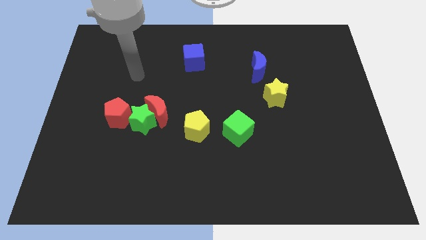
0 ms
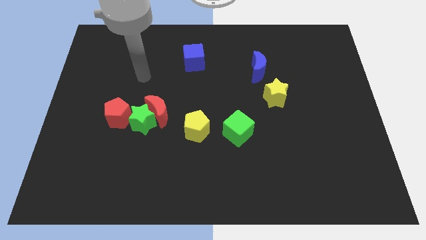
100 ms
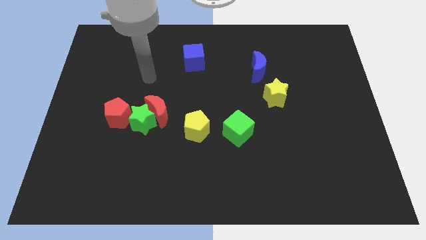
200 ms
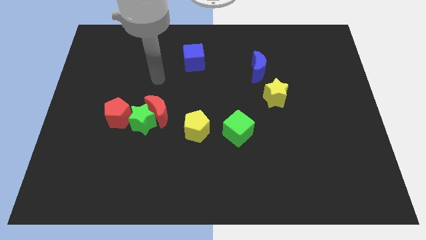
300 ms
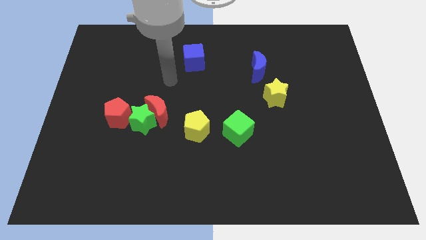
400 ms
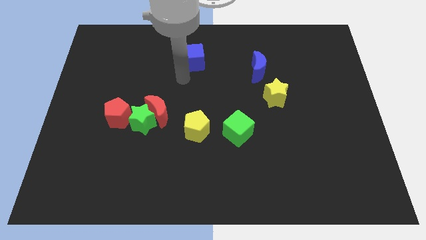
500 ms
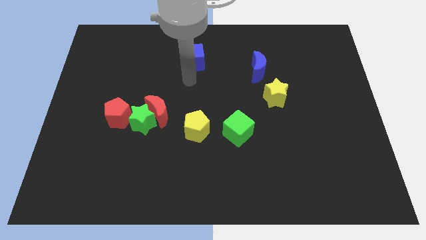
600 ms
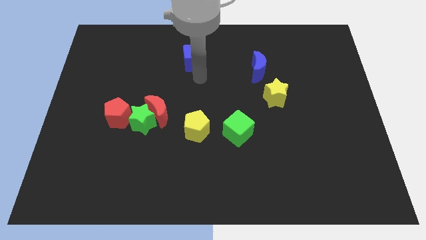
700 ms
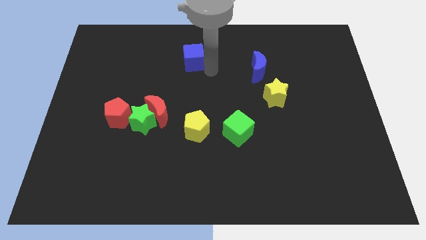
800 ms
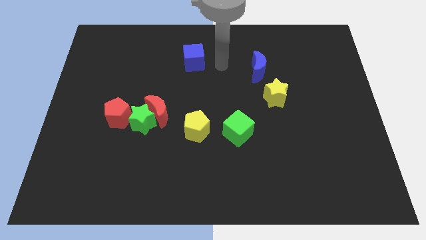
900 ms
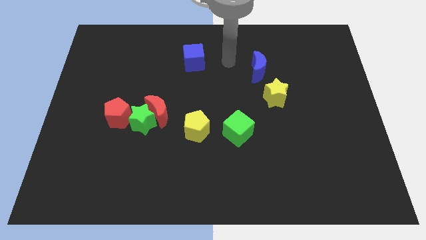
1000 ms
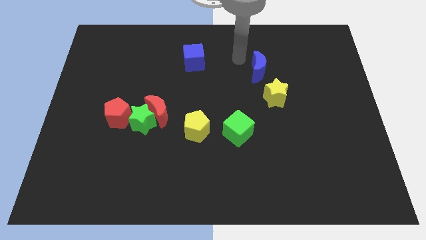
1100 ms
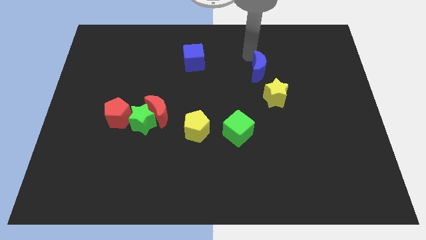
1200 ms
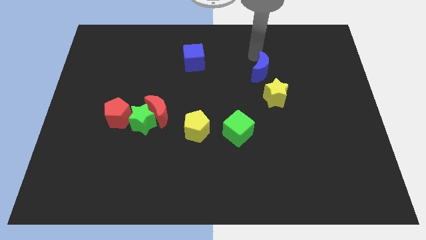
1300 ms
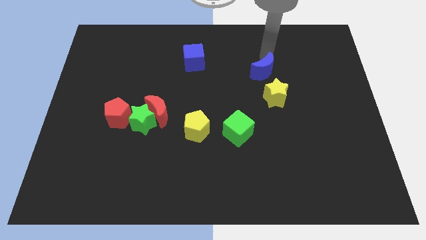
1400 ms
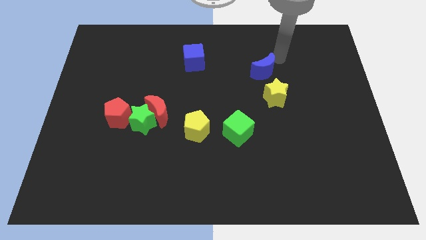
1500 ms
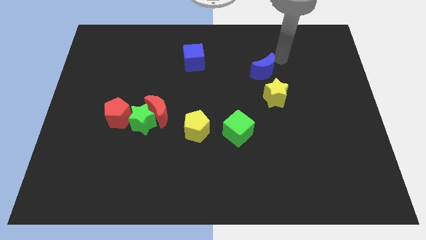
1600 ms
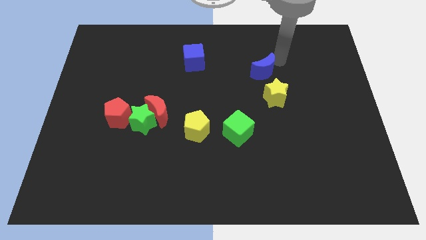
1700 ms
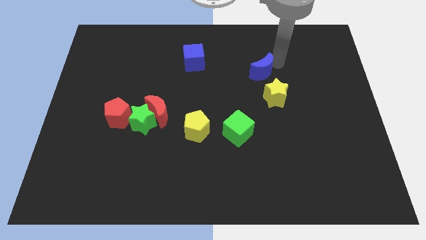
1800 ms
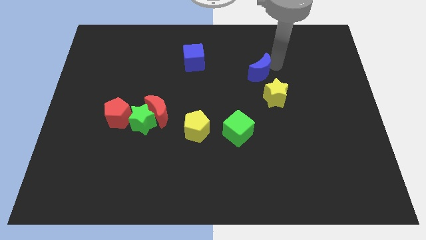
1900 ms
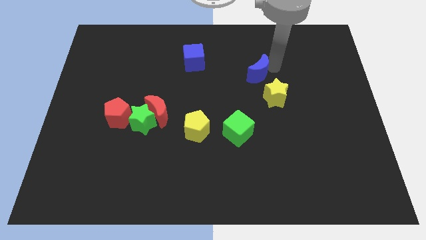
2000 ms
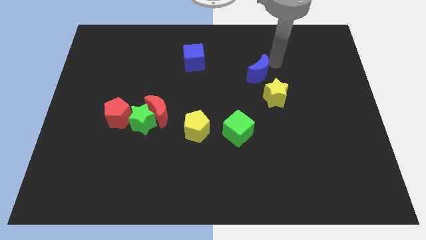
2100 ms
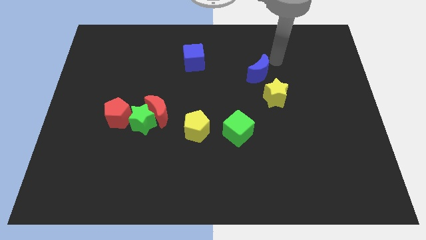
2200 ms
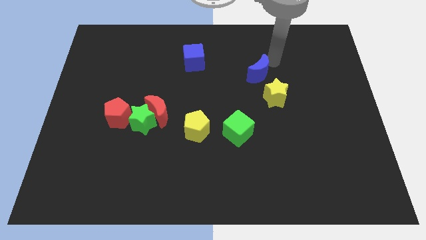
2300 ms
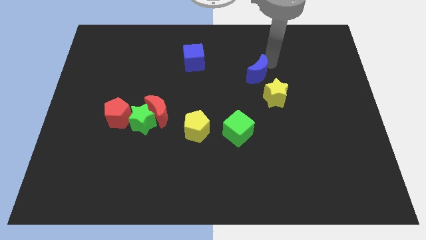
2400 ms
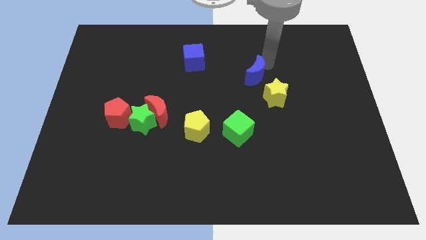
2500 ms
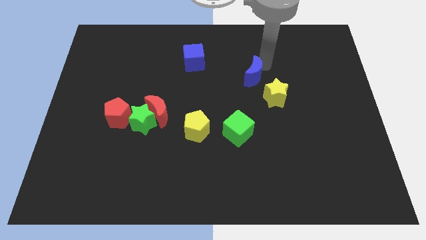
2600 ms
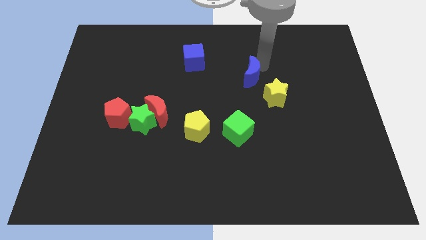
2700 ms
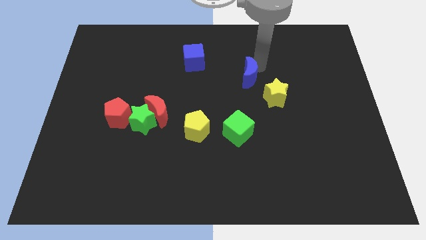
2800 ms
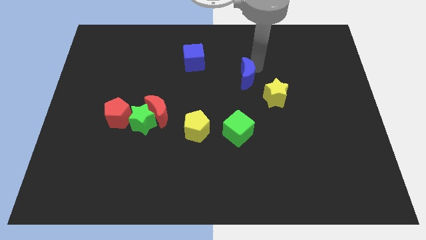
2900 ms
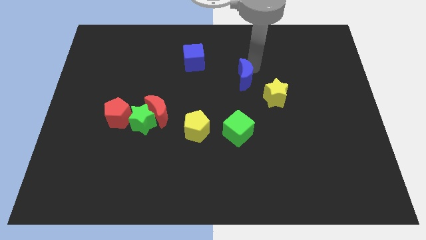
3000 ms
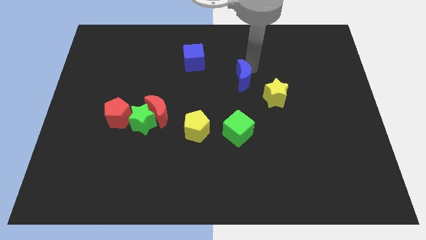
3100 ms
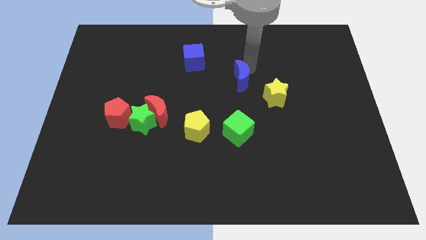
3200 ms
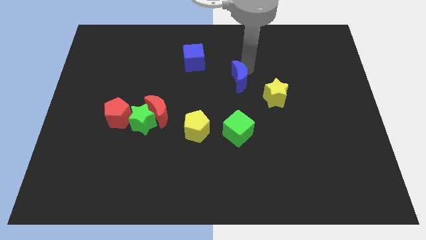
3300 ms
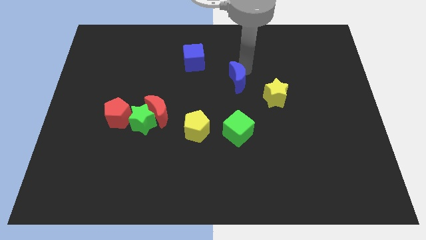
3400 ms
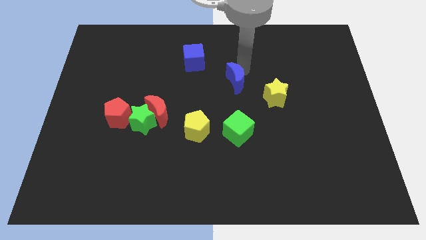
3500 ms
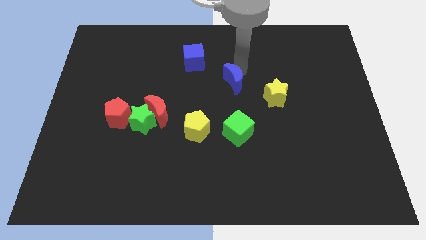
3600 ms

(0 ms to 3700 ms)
slightly move the blue moon down and then left

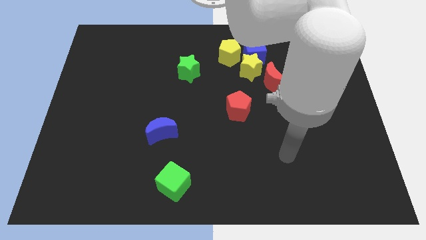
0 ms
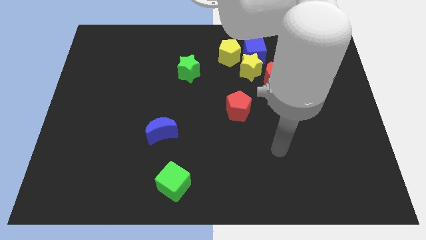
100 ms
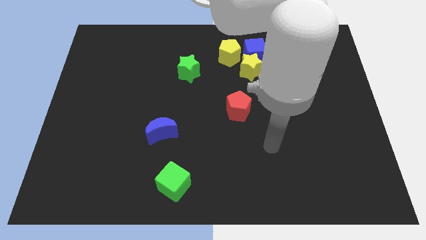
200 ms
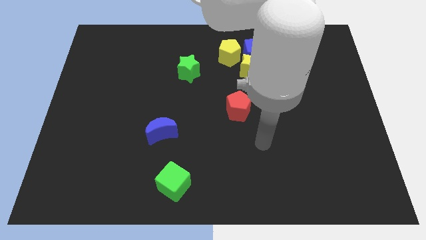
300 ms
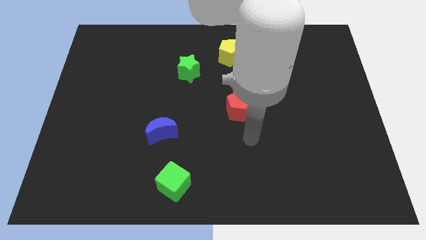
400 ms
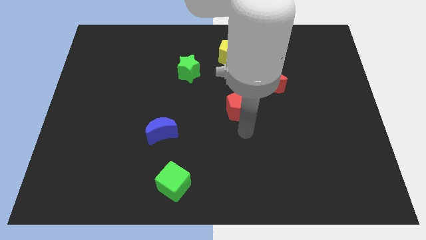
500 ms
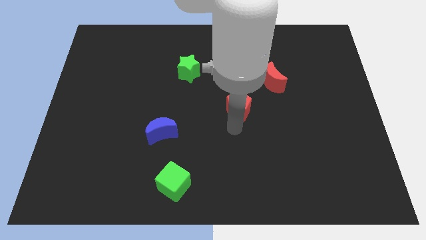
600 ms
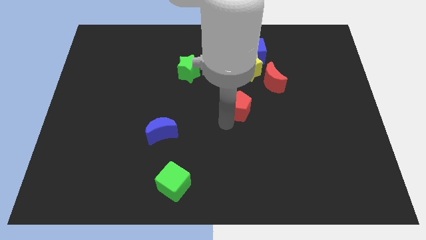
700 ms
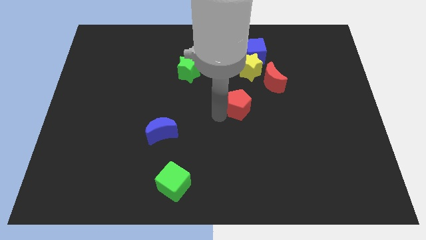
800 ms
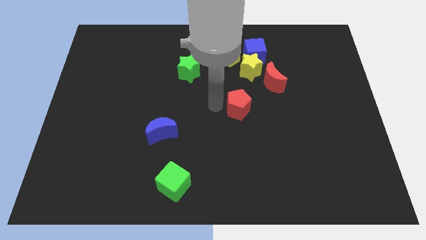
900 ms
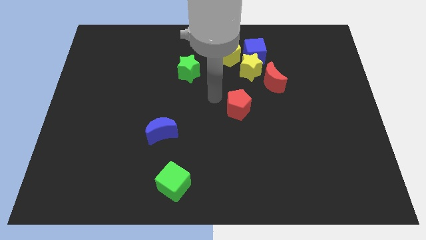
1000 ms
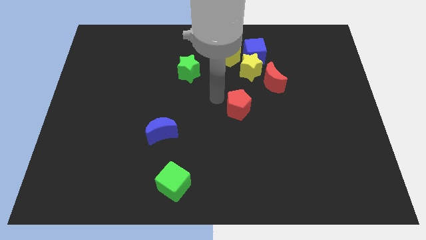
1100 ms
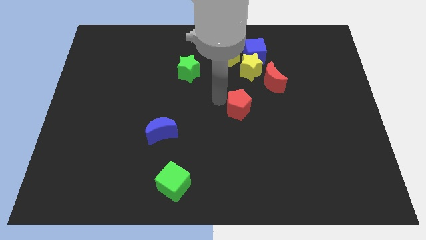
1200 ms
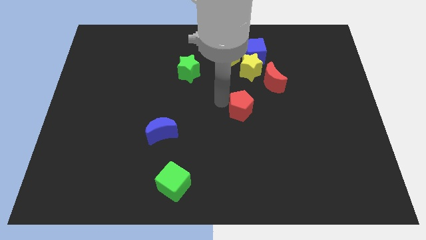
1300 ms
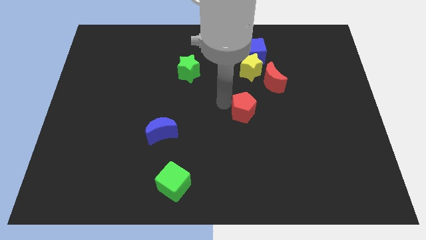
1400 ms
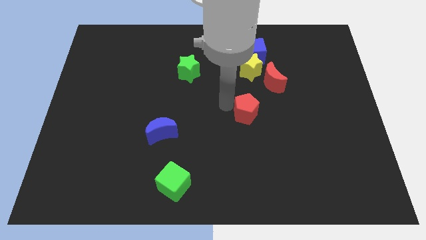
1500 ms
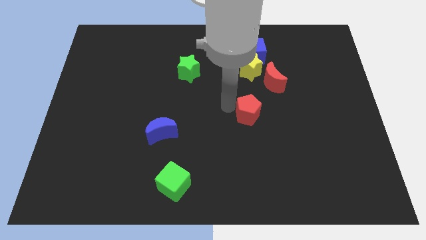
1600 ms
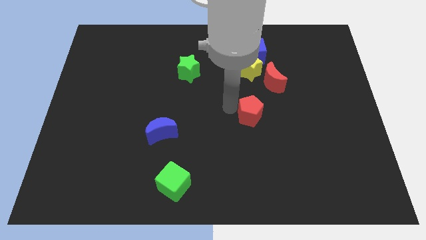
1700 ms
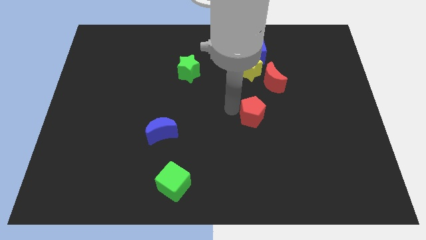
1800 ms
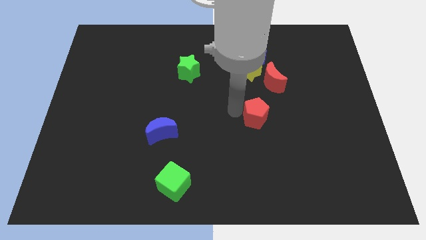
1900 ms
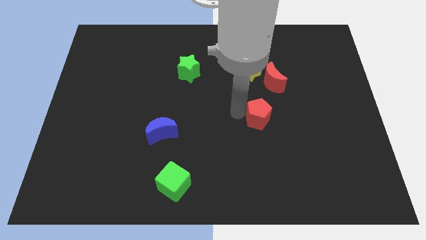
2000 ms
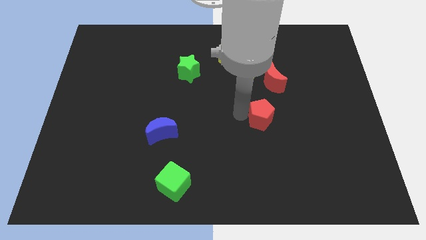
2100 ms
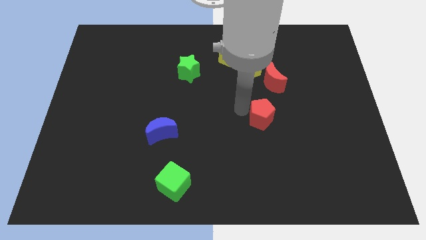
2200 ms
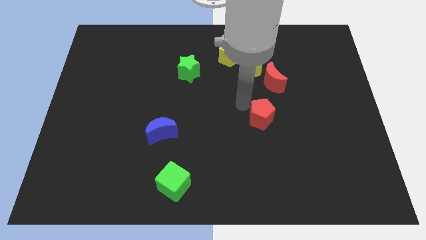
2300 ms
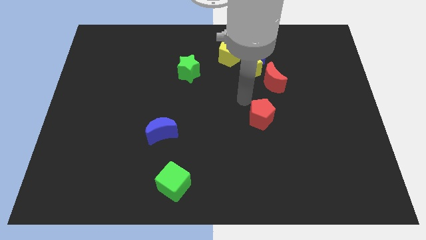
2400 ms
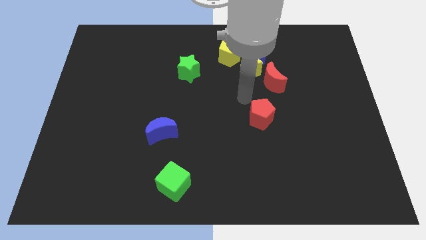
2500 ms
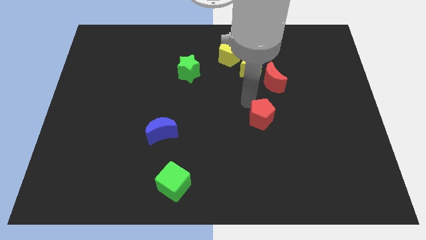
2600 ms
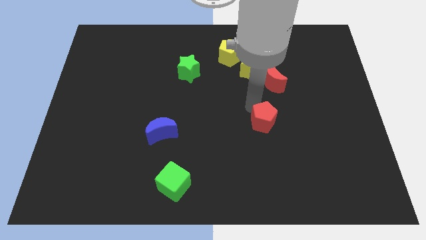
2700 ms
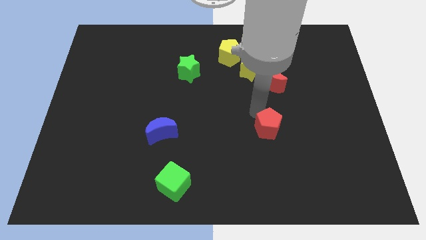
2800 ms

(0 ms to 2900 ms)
slightly push the red pentagon down and right diagonally

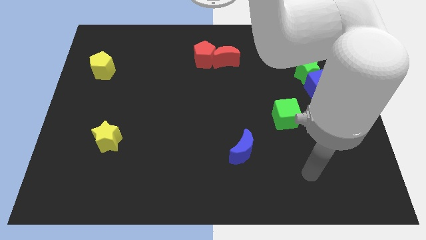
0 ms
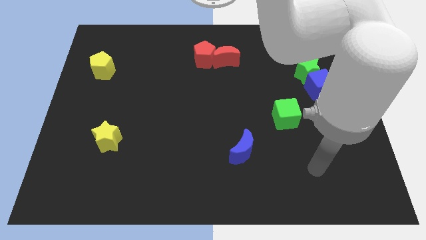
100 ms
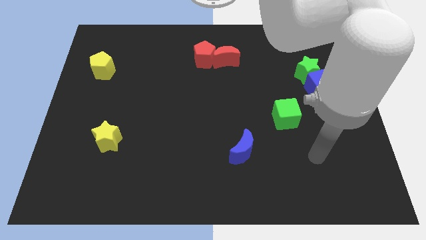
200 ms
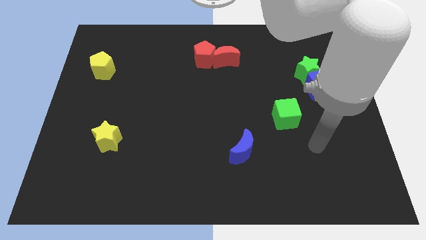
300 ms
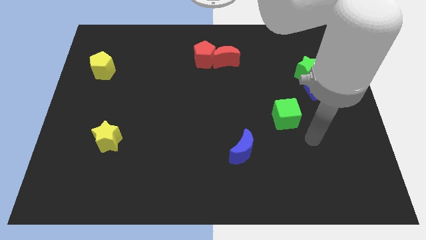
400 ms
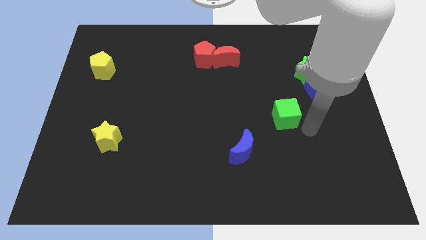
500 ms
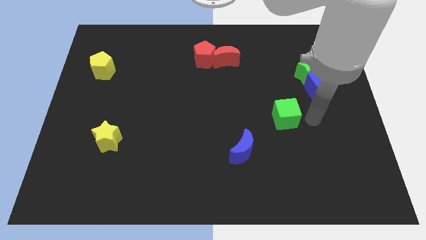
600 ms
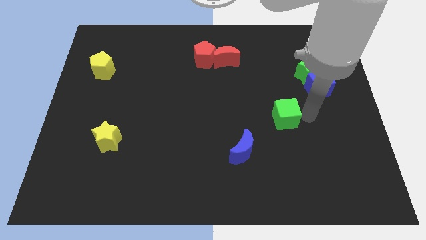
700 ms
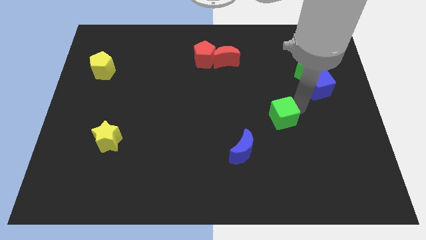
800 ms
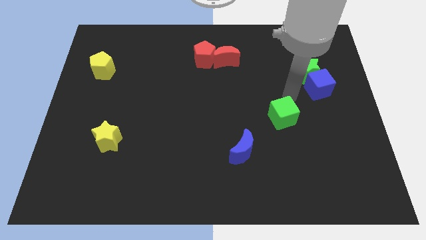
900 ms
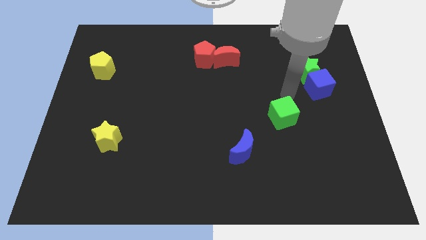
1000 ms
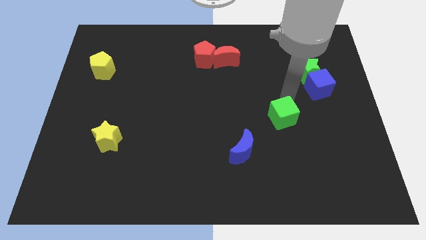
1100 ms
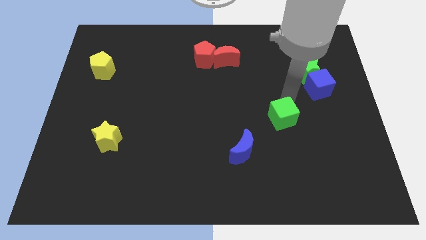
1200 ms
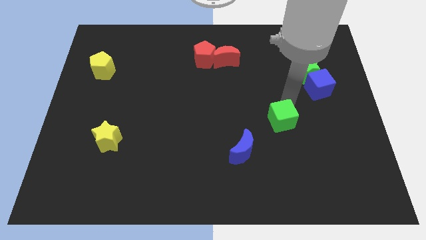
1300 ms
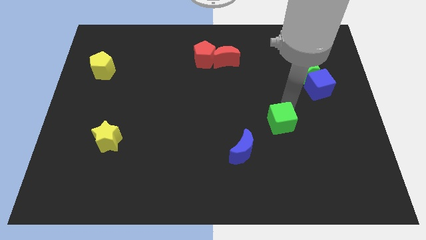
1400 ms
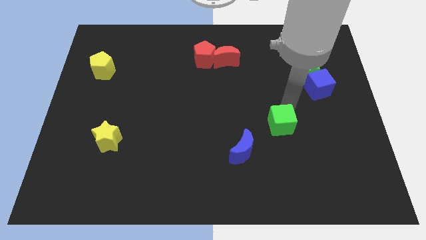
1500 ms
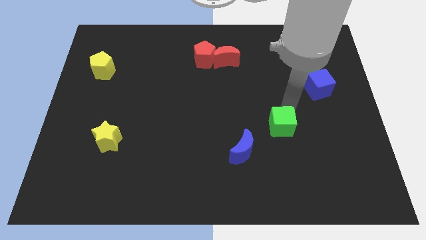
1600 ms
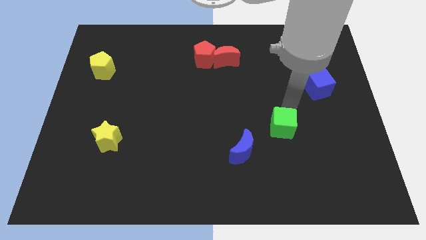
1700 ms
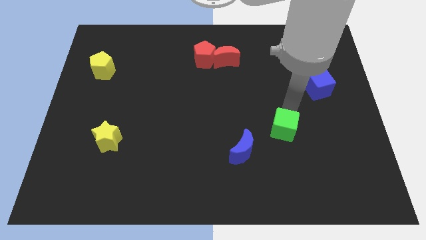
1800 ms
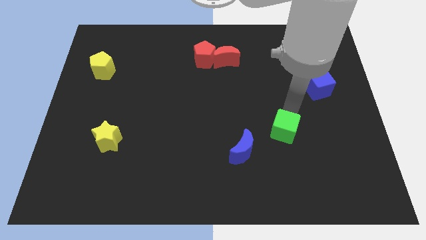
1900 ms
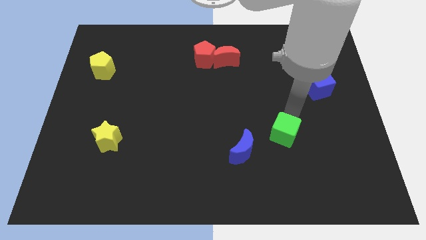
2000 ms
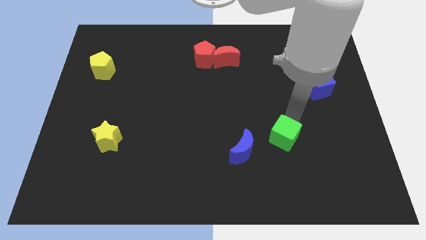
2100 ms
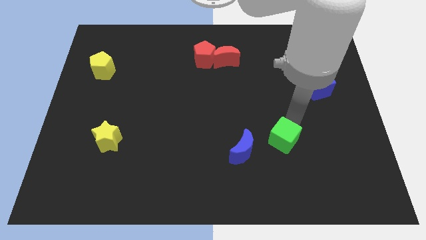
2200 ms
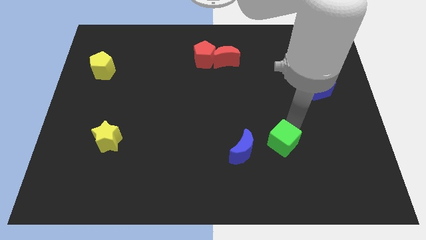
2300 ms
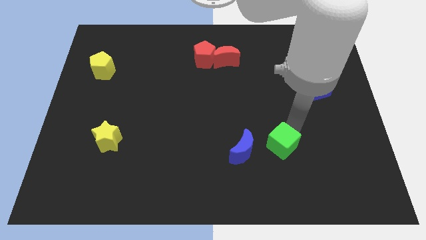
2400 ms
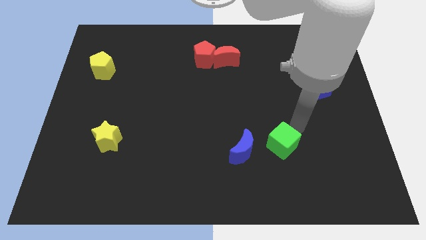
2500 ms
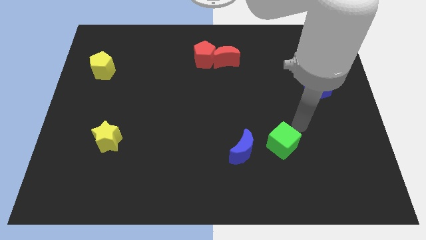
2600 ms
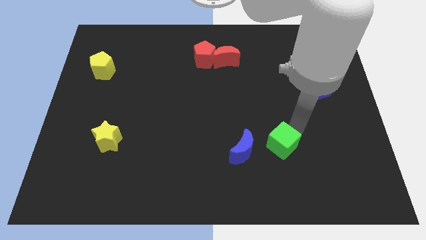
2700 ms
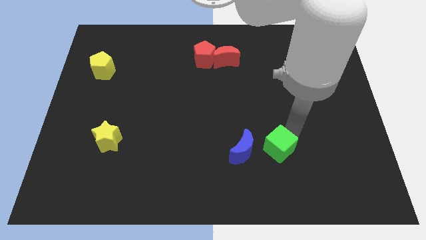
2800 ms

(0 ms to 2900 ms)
slide the green cube a bit down and left diagonally
